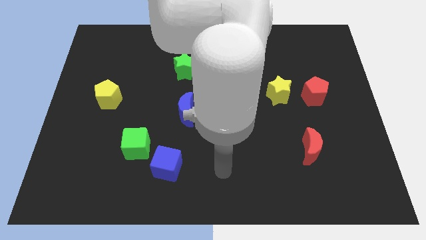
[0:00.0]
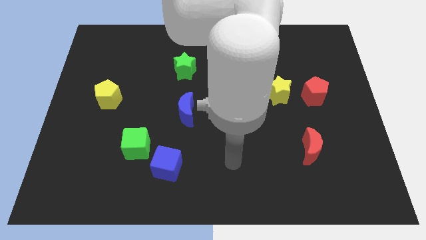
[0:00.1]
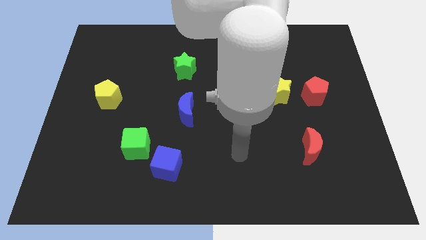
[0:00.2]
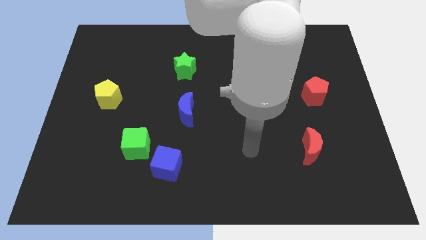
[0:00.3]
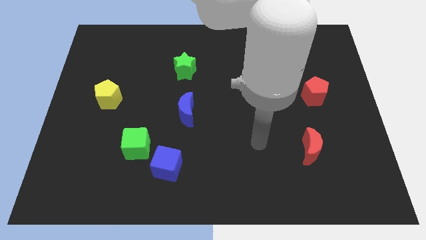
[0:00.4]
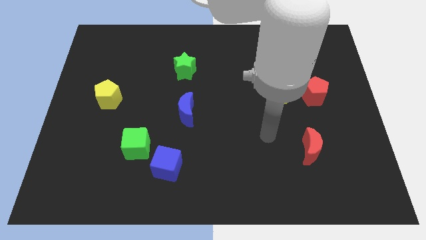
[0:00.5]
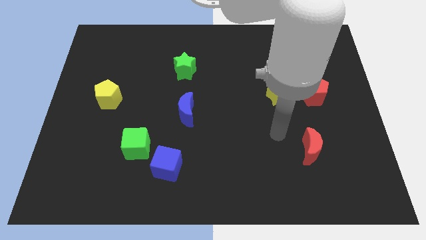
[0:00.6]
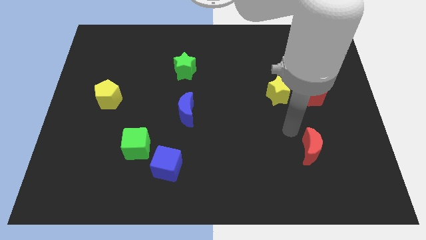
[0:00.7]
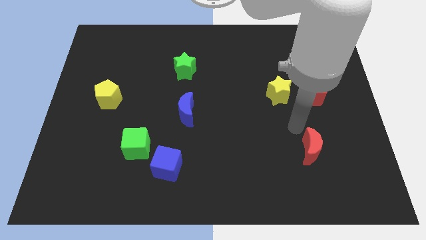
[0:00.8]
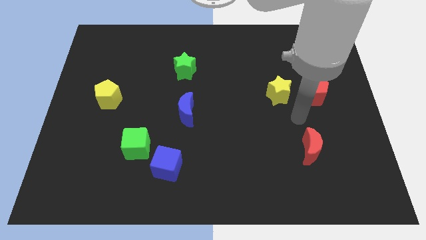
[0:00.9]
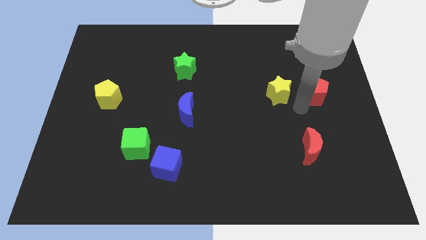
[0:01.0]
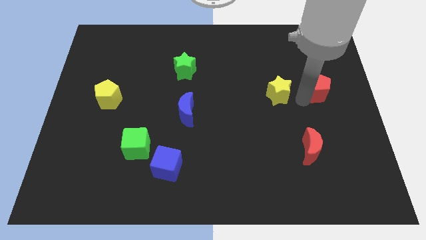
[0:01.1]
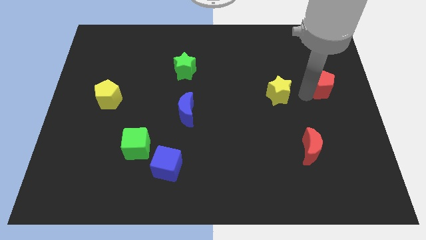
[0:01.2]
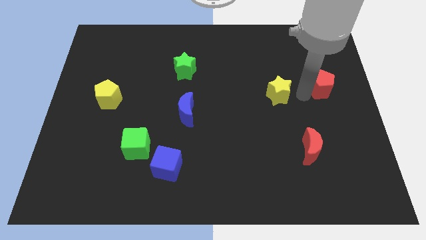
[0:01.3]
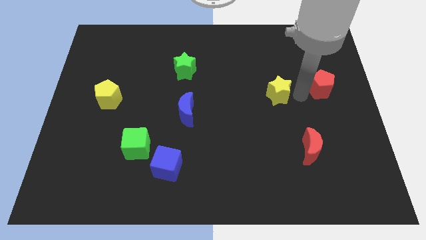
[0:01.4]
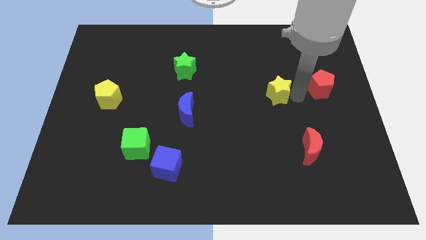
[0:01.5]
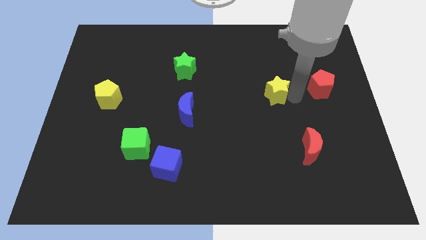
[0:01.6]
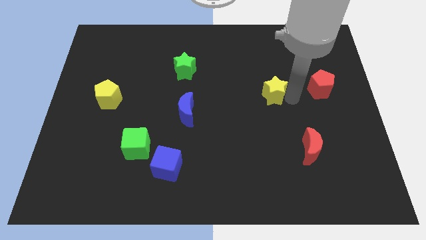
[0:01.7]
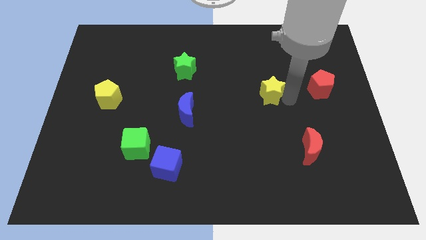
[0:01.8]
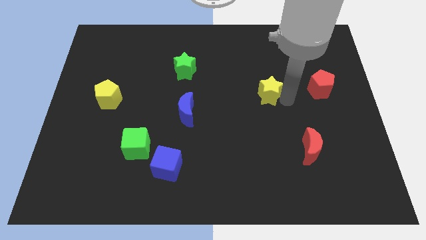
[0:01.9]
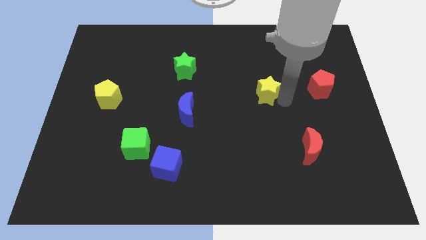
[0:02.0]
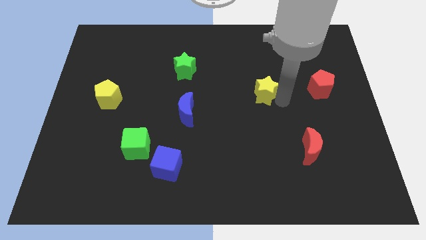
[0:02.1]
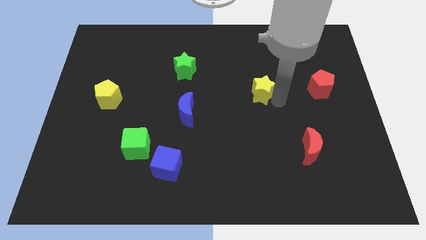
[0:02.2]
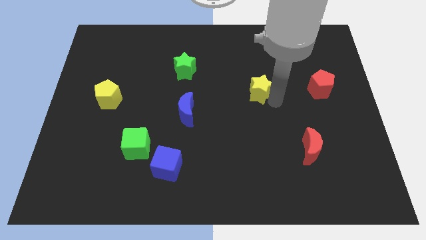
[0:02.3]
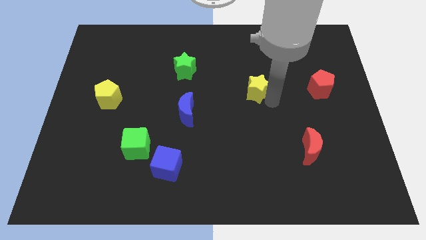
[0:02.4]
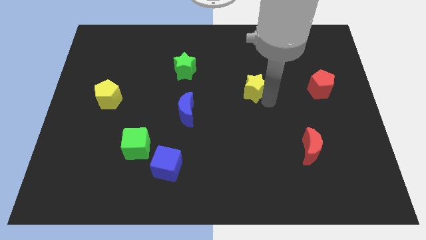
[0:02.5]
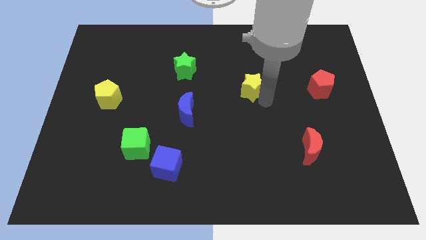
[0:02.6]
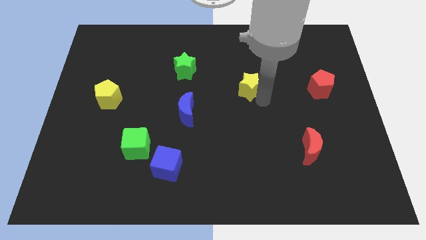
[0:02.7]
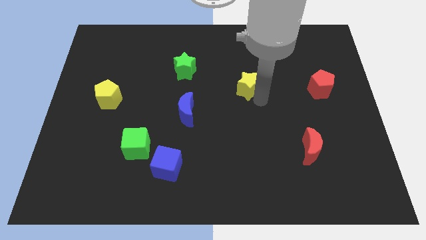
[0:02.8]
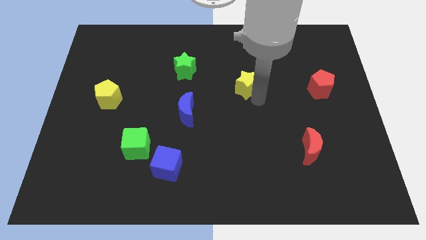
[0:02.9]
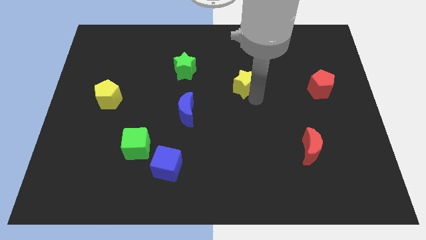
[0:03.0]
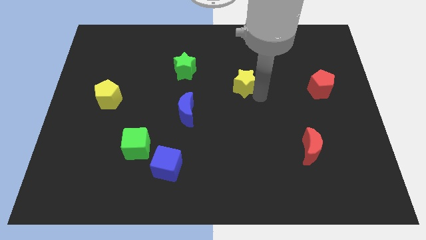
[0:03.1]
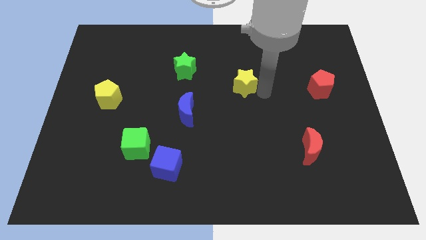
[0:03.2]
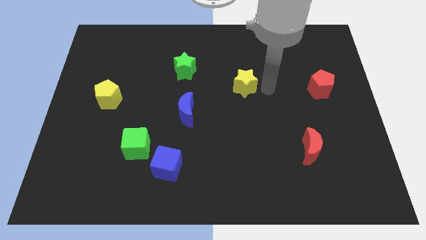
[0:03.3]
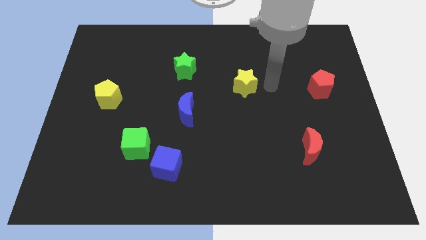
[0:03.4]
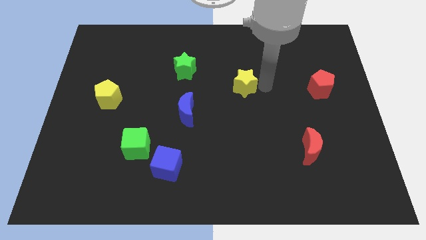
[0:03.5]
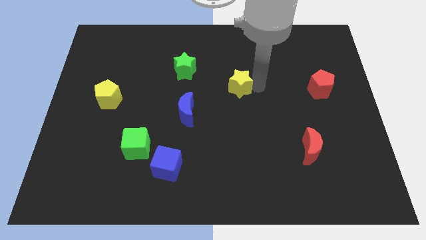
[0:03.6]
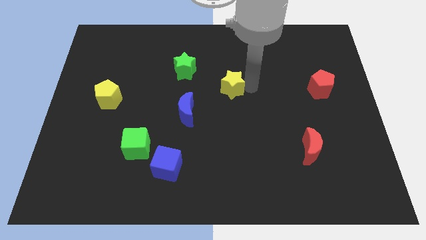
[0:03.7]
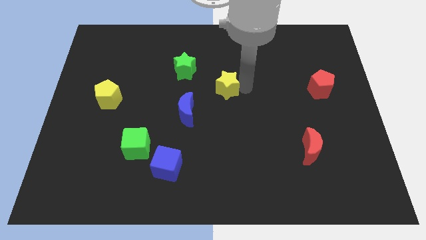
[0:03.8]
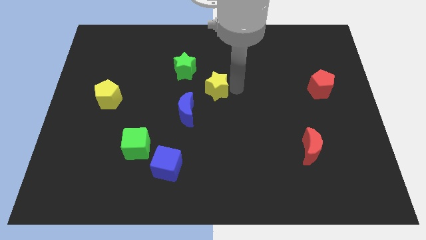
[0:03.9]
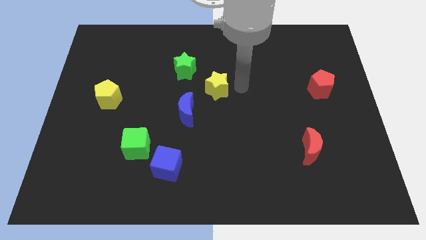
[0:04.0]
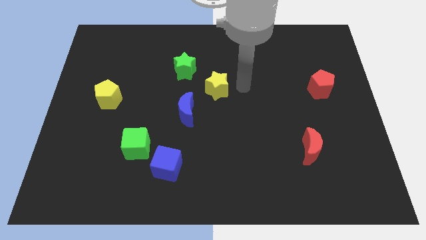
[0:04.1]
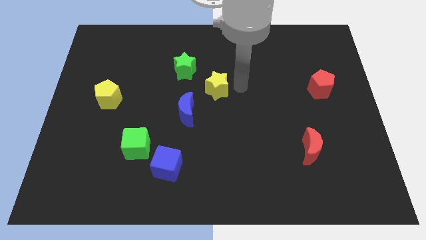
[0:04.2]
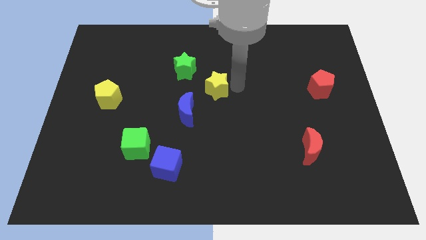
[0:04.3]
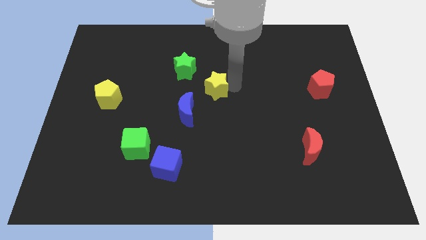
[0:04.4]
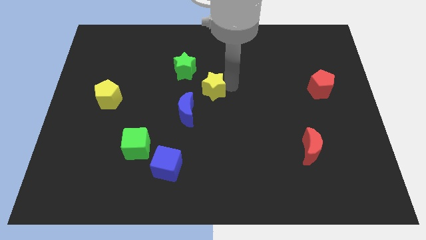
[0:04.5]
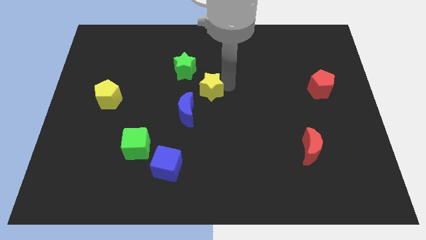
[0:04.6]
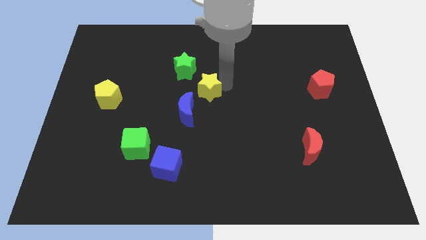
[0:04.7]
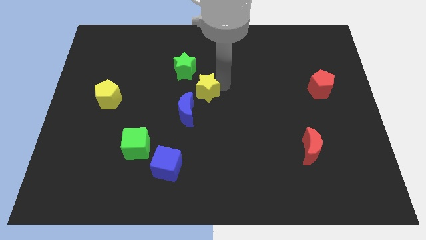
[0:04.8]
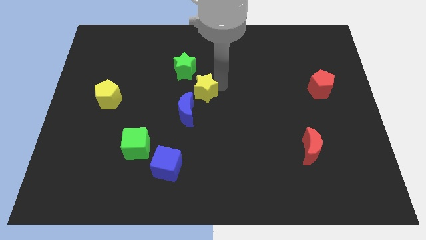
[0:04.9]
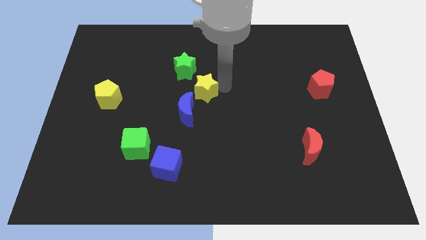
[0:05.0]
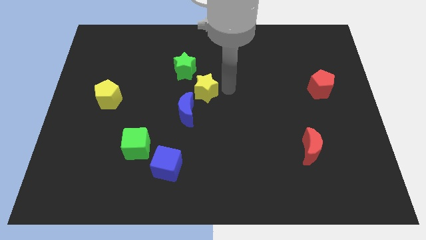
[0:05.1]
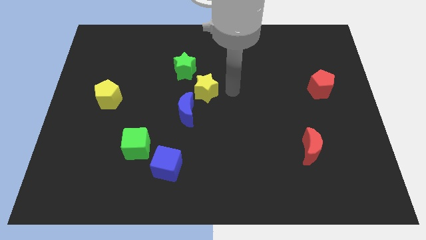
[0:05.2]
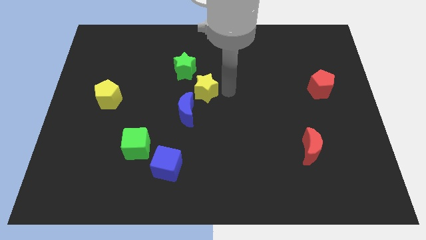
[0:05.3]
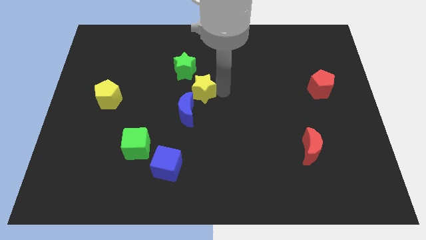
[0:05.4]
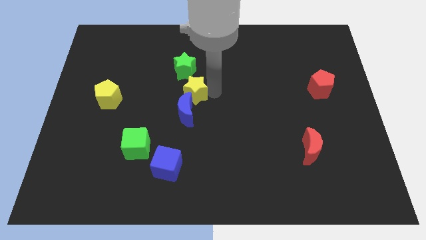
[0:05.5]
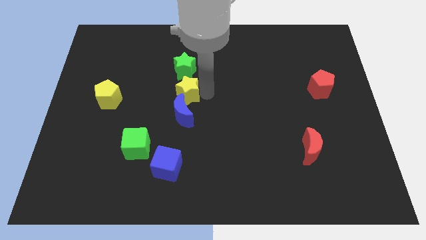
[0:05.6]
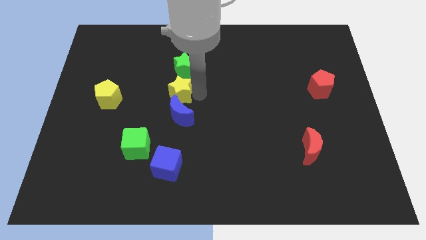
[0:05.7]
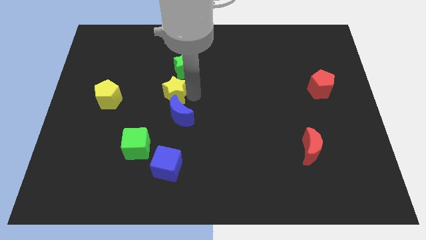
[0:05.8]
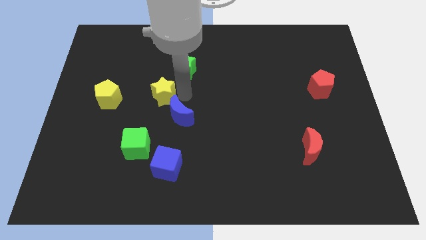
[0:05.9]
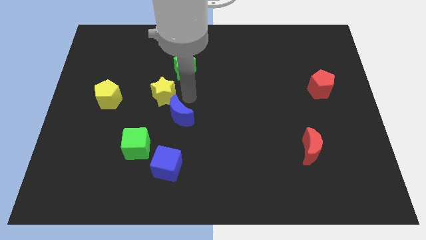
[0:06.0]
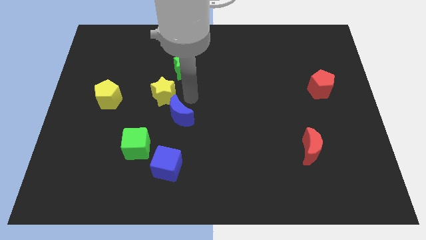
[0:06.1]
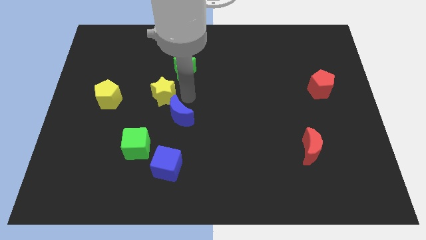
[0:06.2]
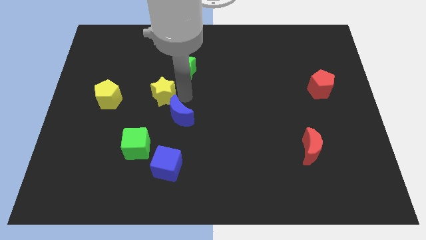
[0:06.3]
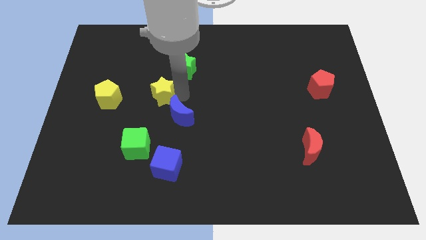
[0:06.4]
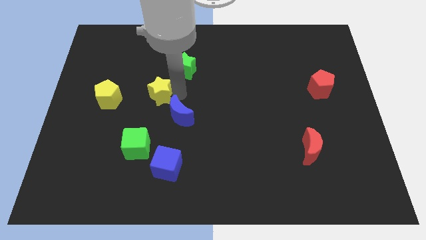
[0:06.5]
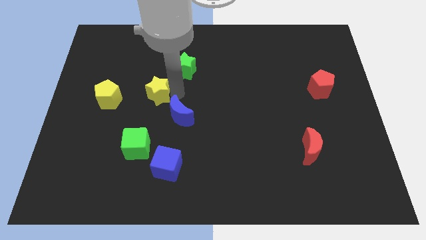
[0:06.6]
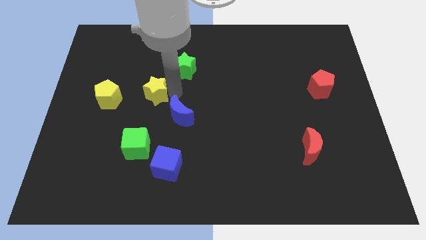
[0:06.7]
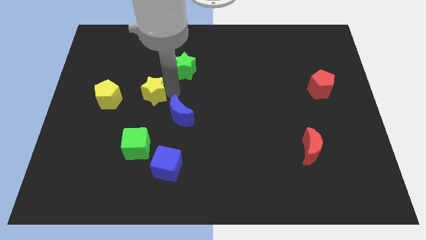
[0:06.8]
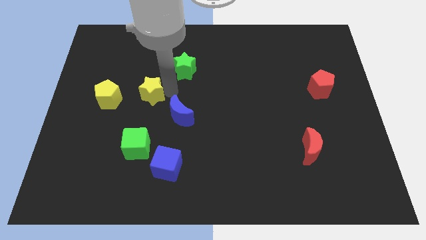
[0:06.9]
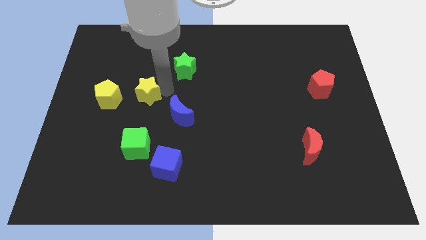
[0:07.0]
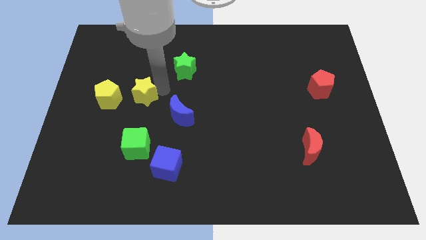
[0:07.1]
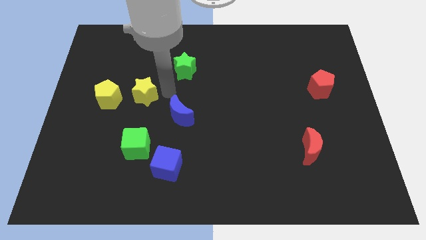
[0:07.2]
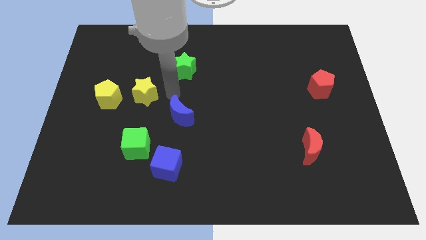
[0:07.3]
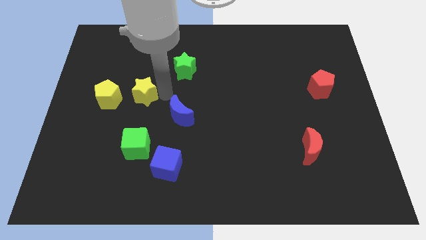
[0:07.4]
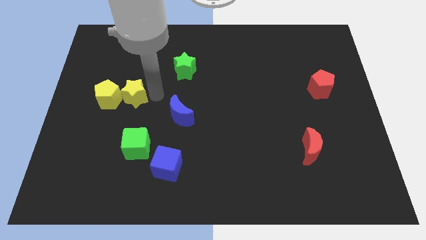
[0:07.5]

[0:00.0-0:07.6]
push the yellow star towards the yellow pentagon

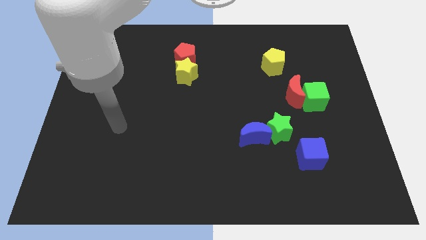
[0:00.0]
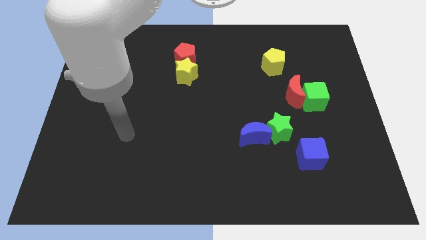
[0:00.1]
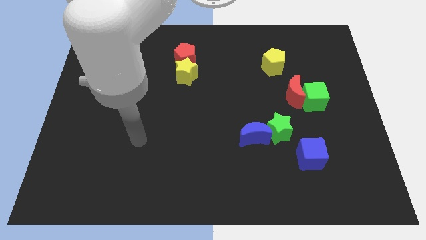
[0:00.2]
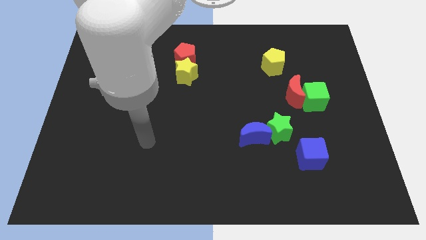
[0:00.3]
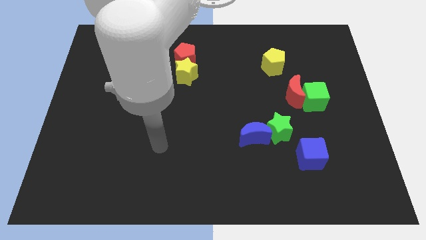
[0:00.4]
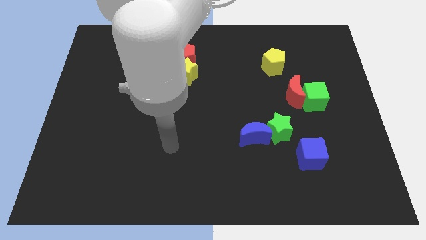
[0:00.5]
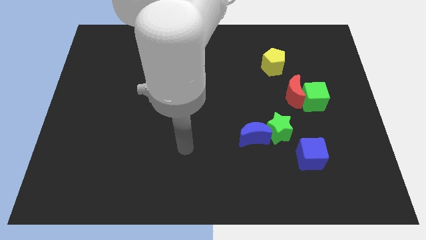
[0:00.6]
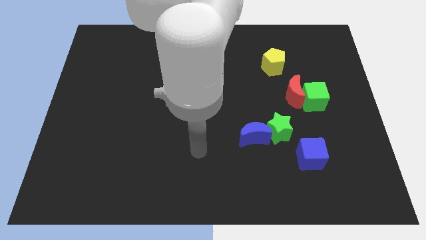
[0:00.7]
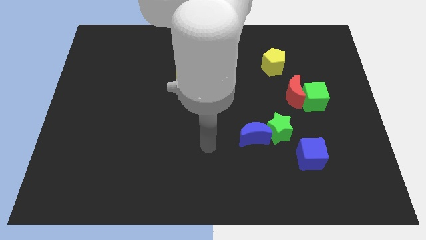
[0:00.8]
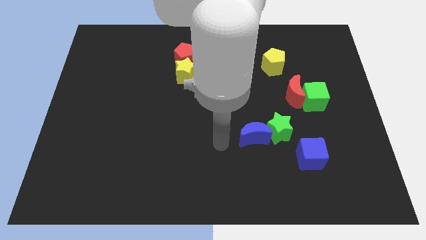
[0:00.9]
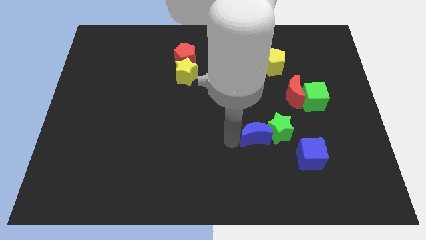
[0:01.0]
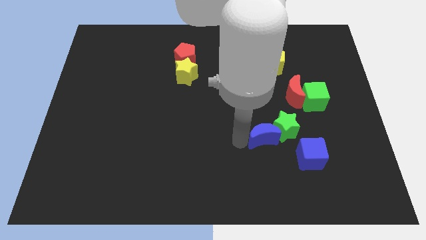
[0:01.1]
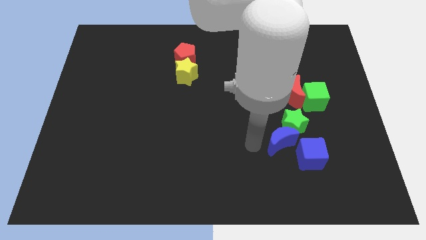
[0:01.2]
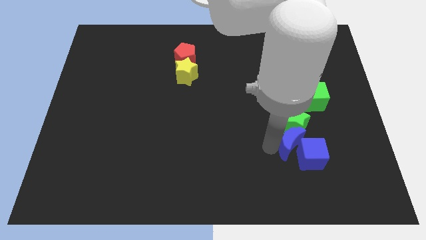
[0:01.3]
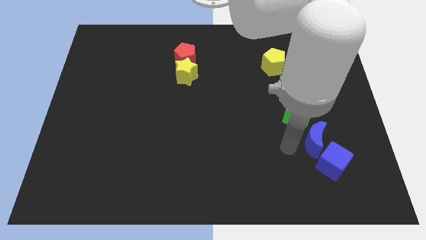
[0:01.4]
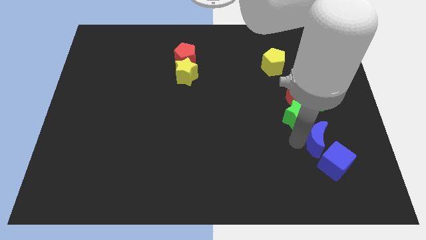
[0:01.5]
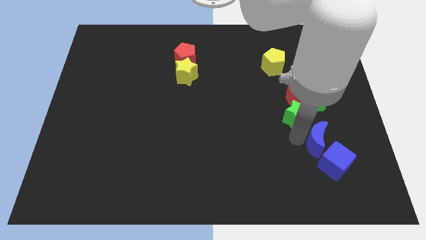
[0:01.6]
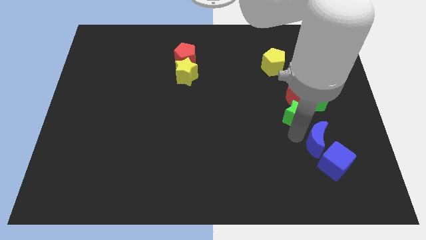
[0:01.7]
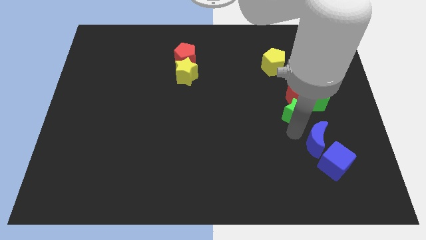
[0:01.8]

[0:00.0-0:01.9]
put the green star next to the red moon
